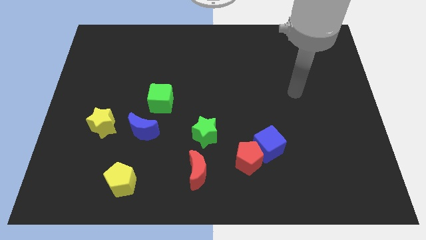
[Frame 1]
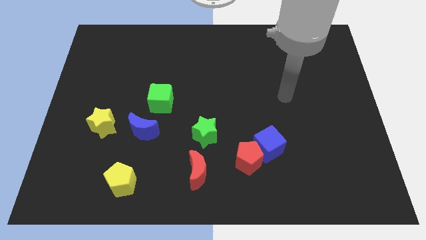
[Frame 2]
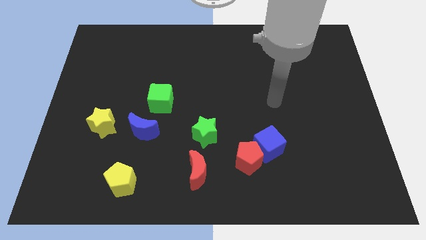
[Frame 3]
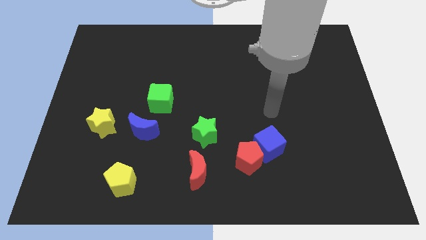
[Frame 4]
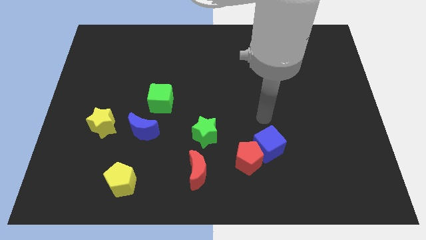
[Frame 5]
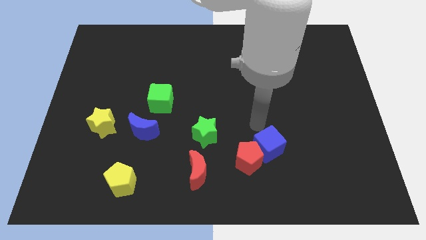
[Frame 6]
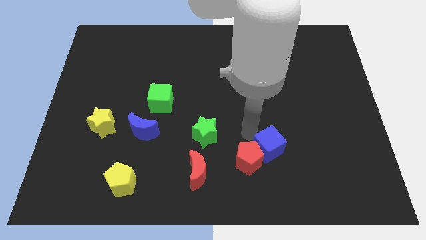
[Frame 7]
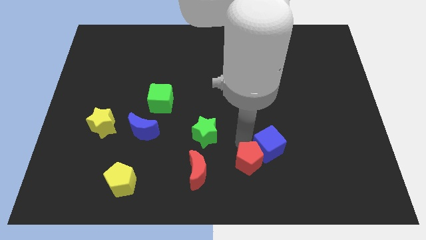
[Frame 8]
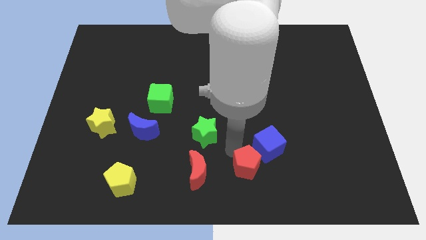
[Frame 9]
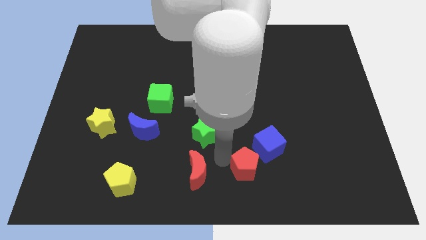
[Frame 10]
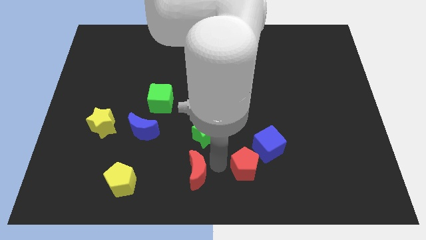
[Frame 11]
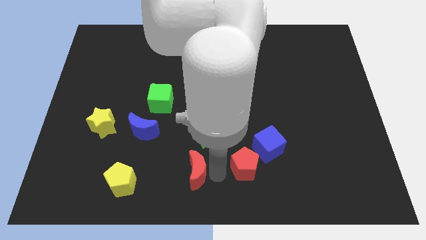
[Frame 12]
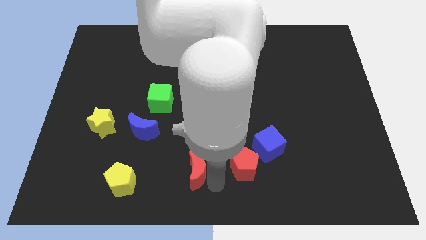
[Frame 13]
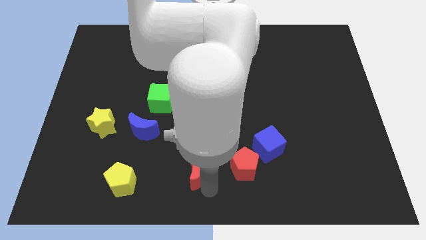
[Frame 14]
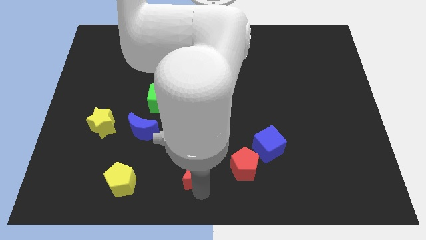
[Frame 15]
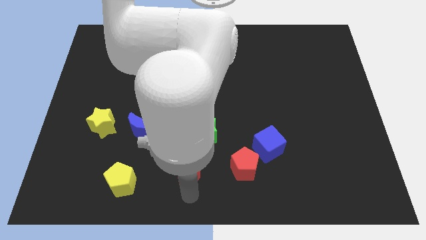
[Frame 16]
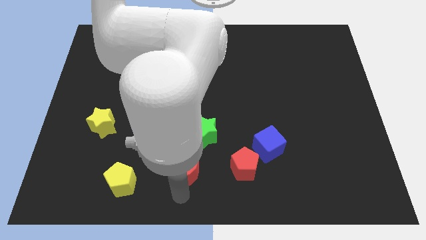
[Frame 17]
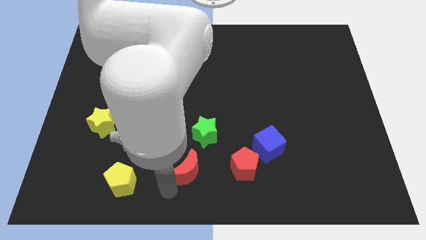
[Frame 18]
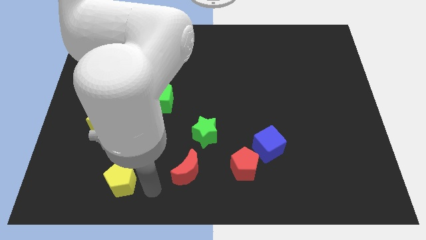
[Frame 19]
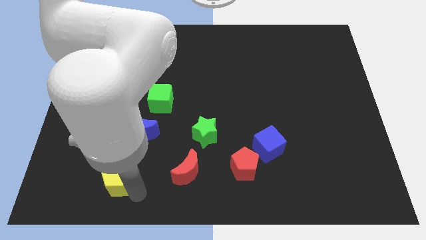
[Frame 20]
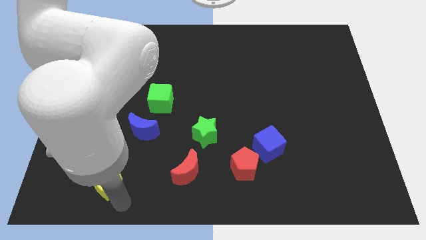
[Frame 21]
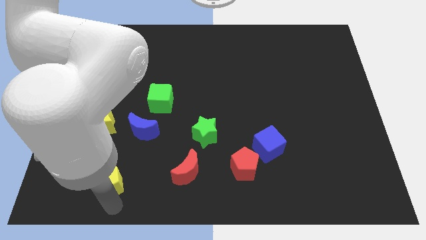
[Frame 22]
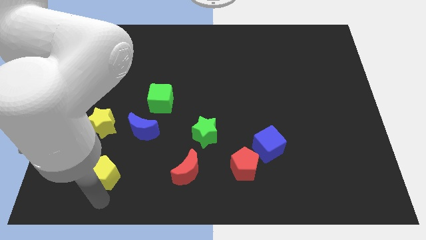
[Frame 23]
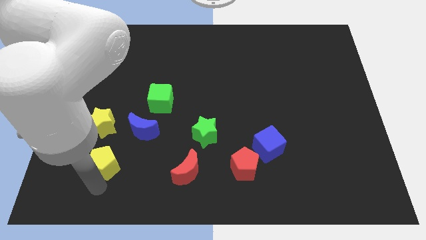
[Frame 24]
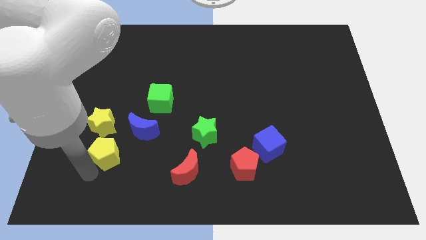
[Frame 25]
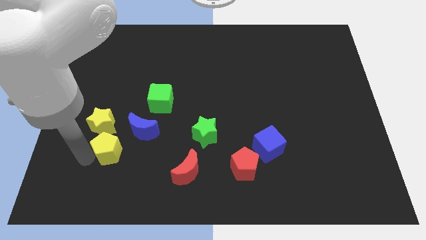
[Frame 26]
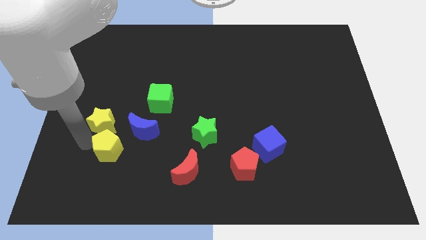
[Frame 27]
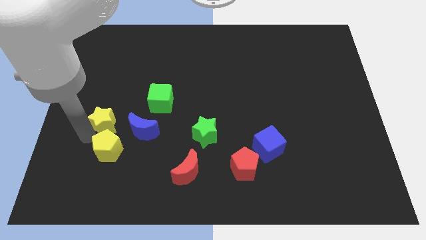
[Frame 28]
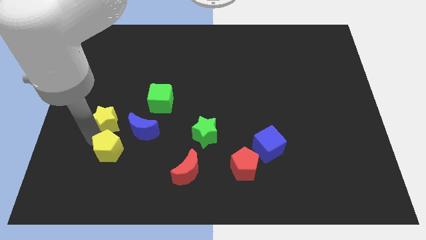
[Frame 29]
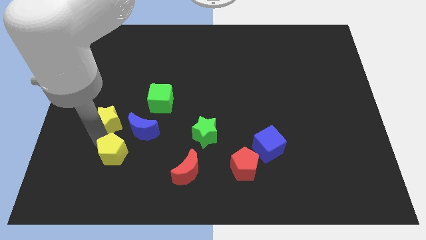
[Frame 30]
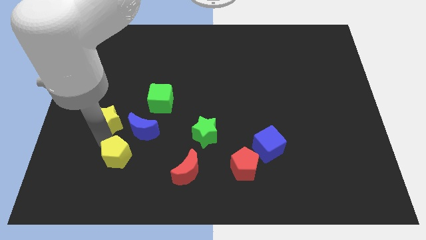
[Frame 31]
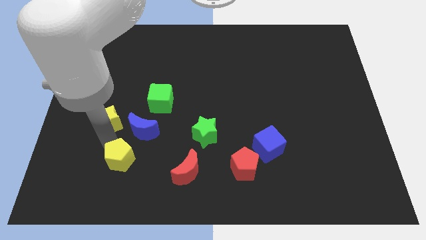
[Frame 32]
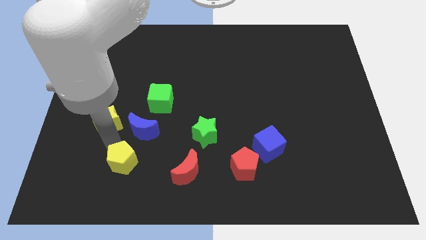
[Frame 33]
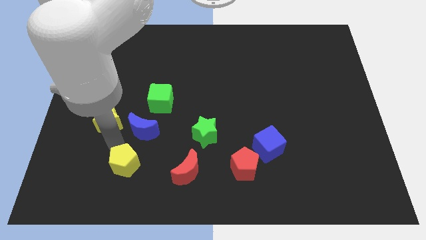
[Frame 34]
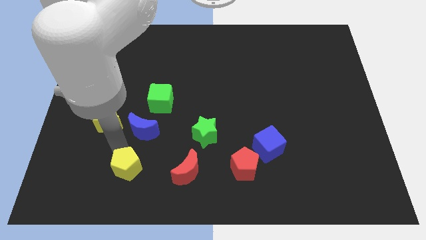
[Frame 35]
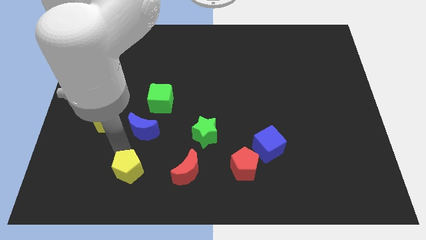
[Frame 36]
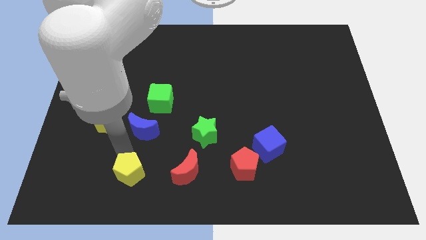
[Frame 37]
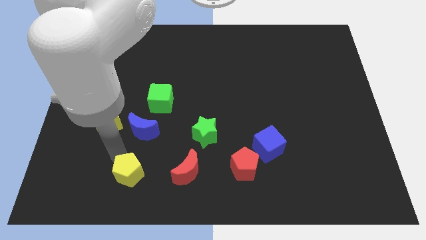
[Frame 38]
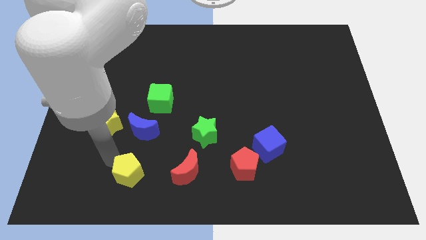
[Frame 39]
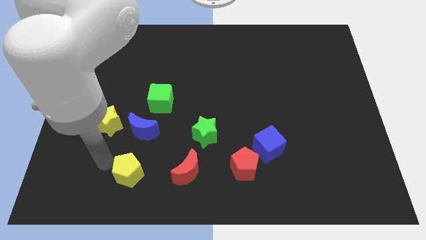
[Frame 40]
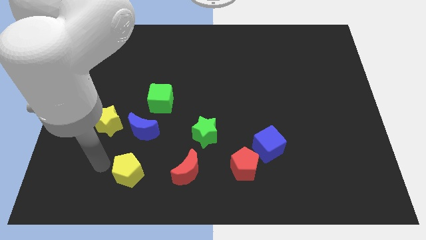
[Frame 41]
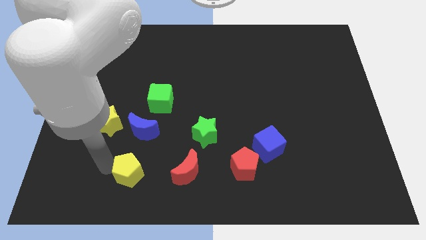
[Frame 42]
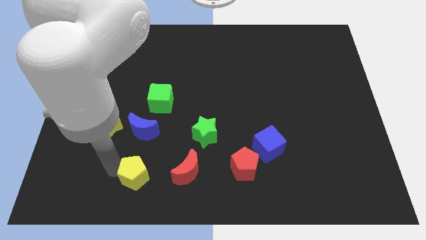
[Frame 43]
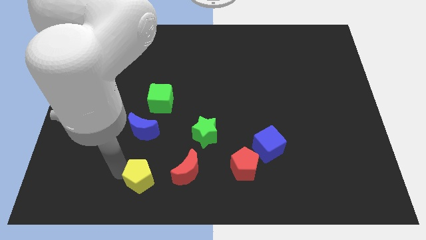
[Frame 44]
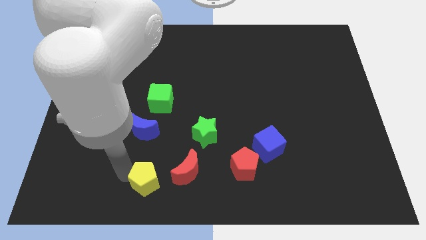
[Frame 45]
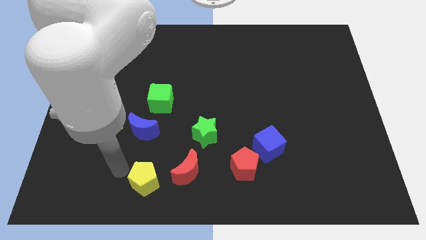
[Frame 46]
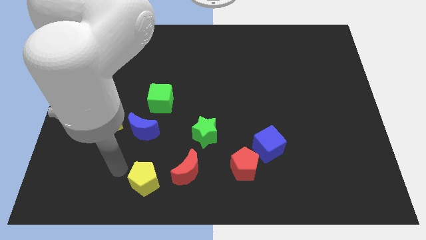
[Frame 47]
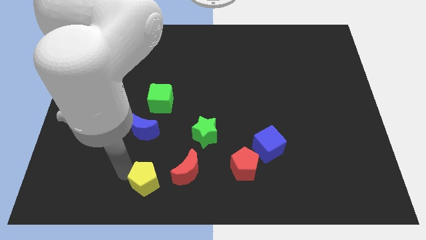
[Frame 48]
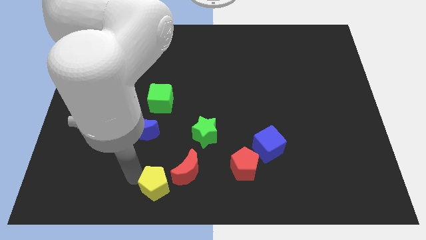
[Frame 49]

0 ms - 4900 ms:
slide the yellow pentagon slightly to the right

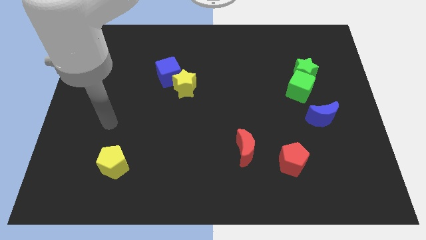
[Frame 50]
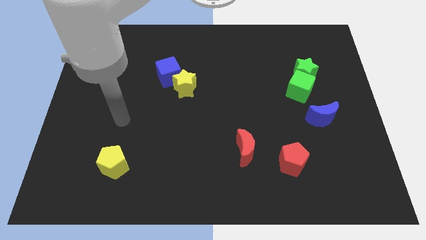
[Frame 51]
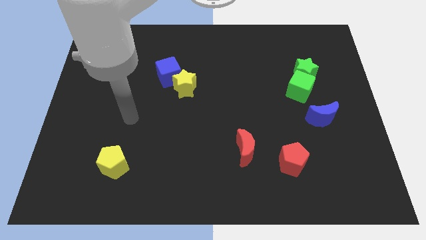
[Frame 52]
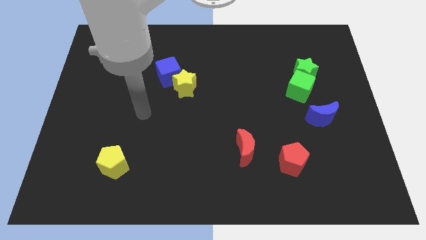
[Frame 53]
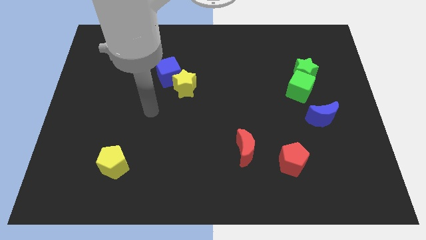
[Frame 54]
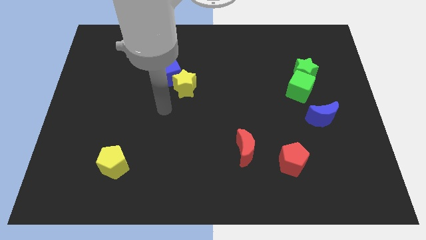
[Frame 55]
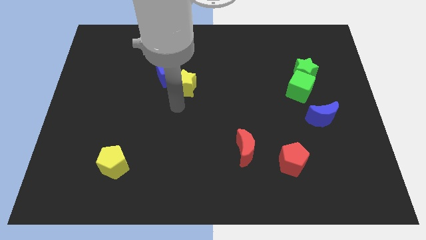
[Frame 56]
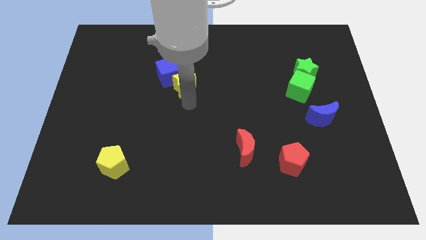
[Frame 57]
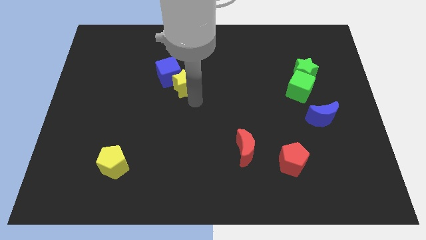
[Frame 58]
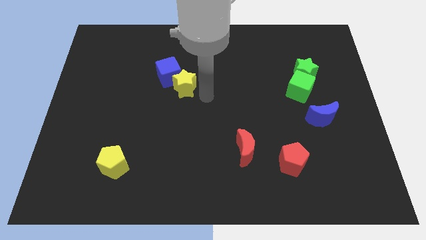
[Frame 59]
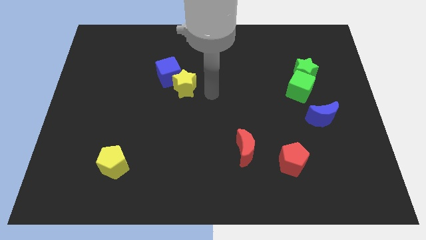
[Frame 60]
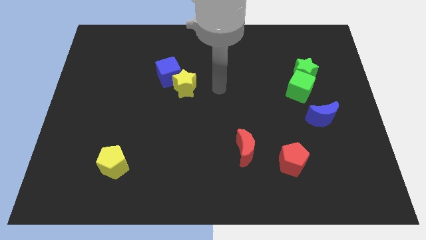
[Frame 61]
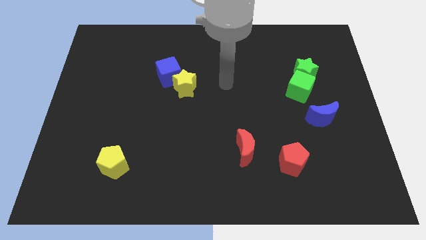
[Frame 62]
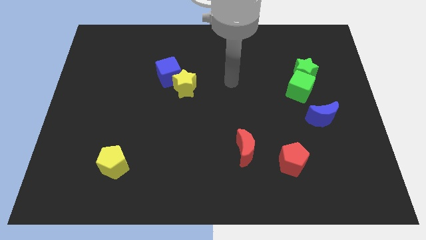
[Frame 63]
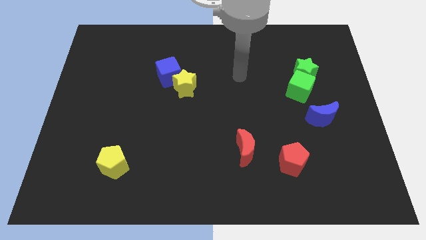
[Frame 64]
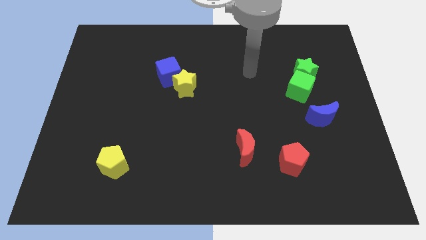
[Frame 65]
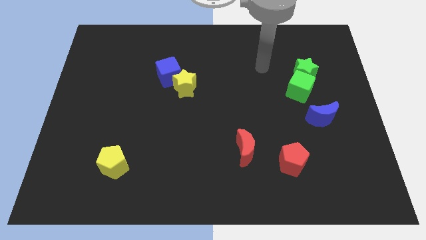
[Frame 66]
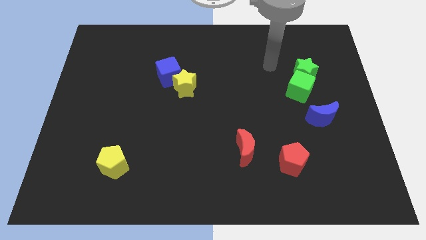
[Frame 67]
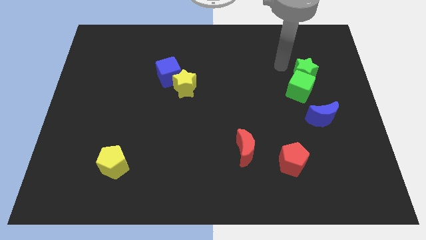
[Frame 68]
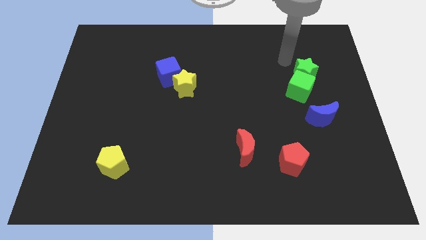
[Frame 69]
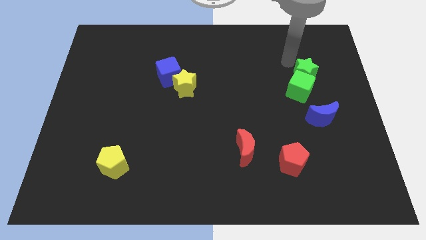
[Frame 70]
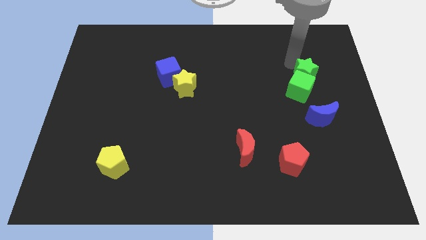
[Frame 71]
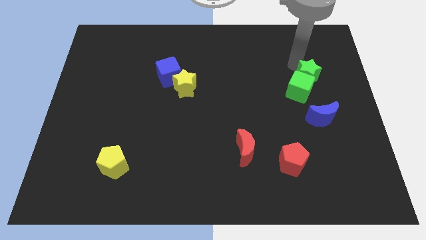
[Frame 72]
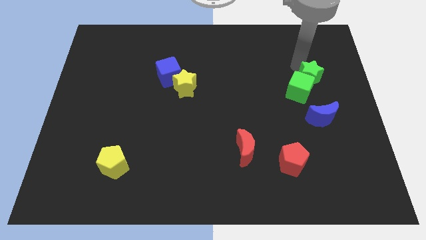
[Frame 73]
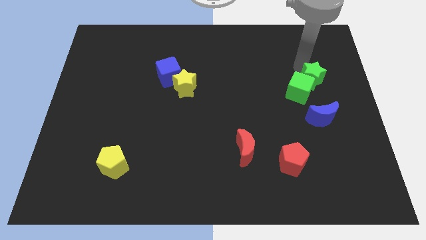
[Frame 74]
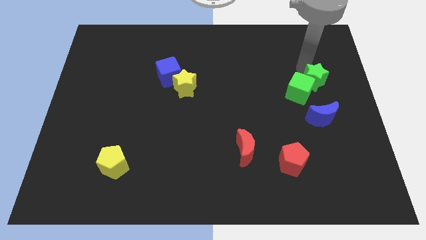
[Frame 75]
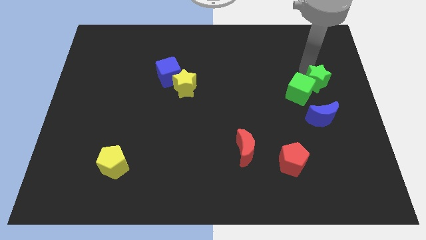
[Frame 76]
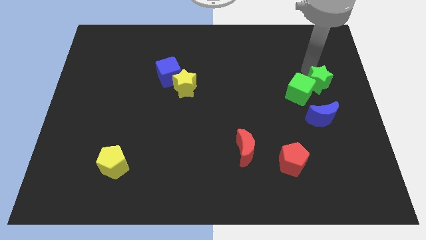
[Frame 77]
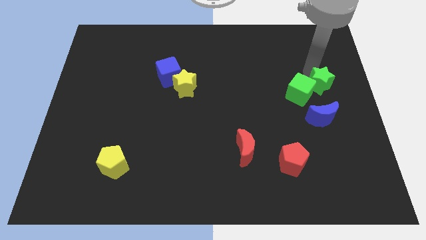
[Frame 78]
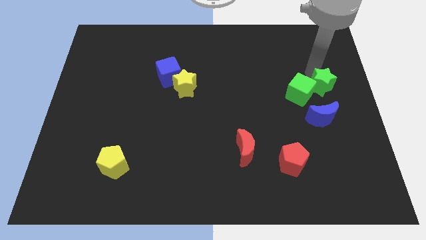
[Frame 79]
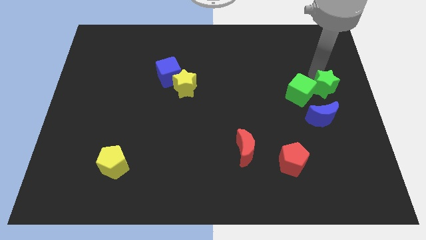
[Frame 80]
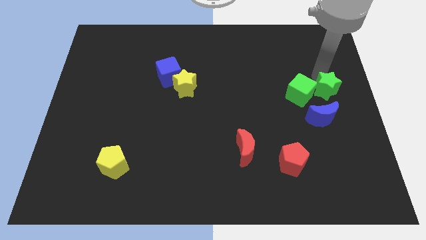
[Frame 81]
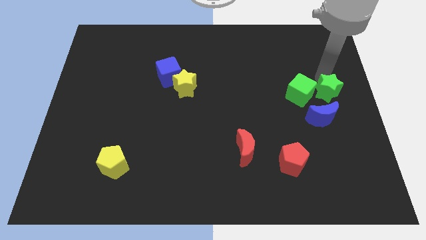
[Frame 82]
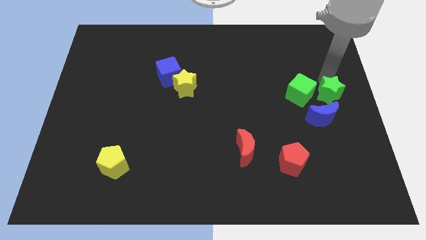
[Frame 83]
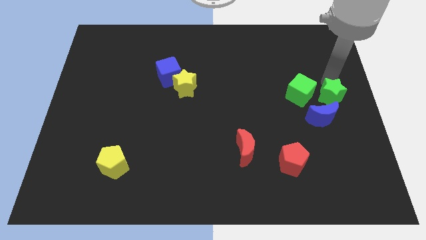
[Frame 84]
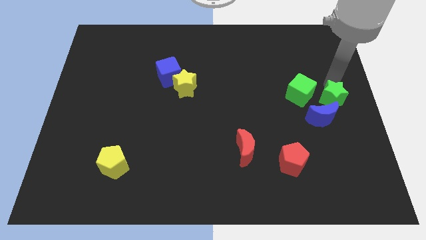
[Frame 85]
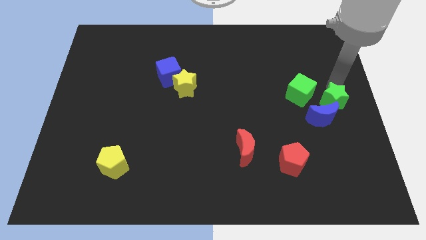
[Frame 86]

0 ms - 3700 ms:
slide the green star somewhat downwards
